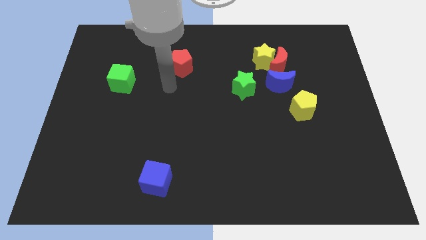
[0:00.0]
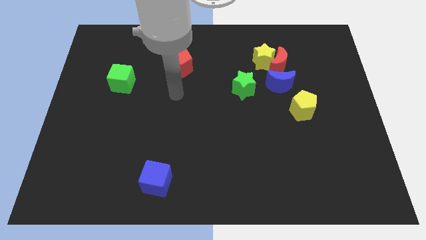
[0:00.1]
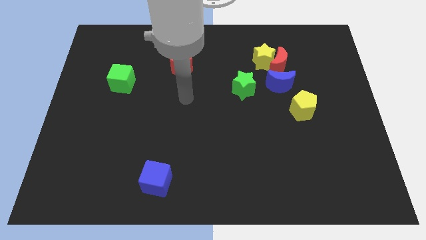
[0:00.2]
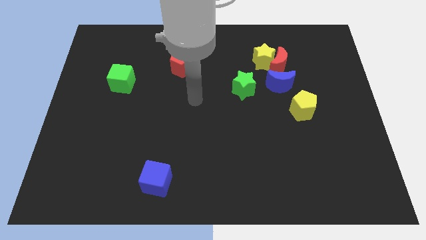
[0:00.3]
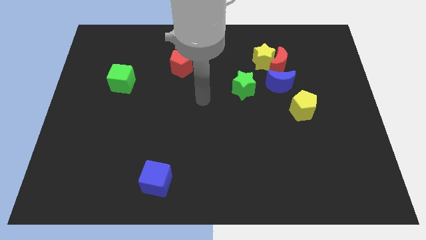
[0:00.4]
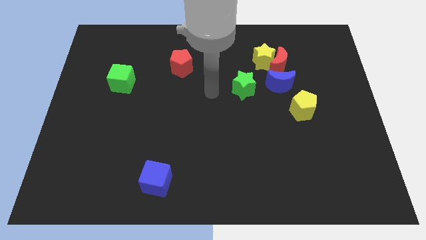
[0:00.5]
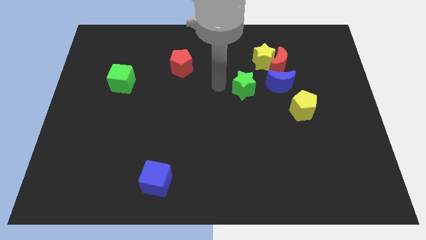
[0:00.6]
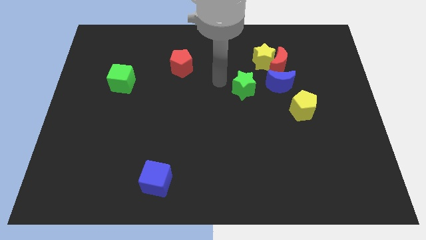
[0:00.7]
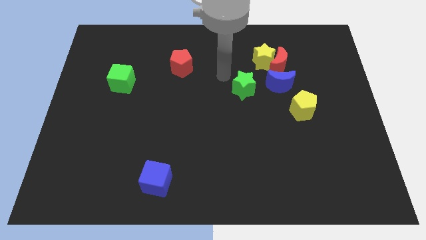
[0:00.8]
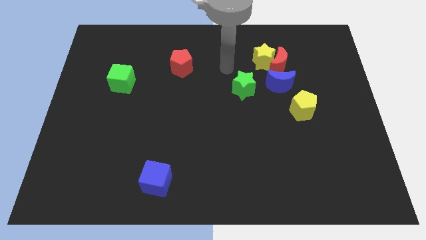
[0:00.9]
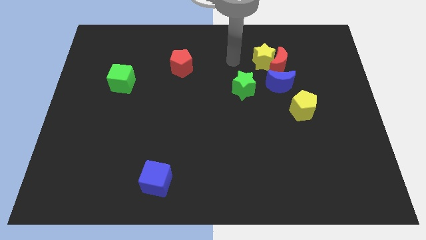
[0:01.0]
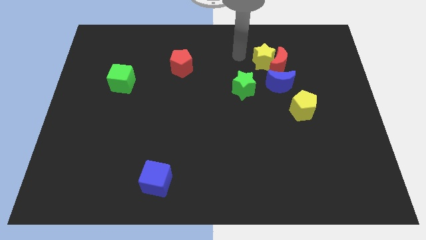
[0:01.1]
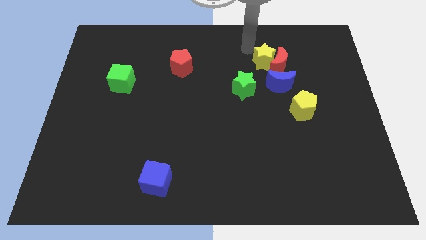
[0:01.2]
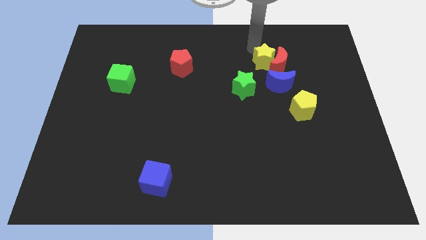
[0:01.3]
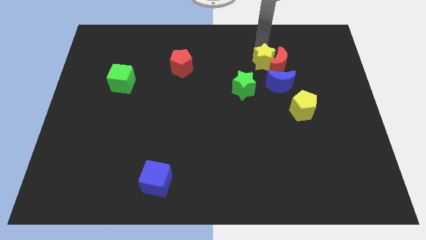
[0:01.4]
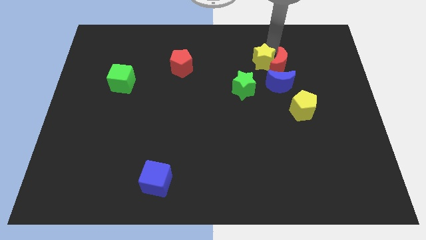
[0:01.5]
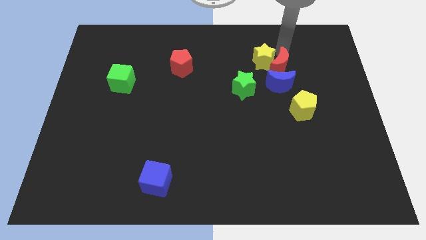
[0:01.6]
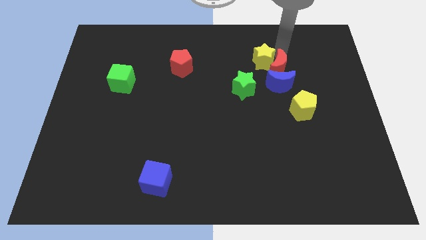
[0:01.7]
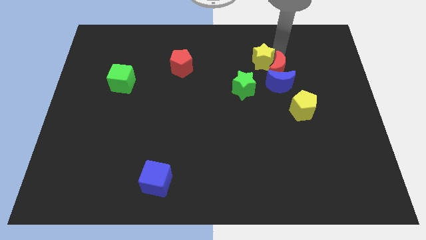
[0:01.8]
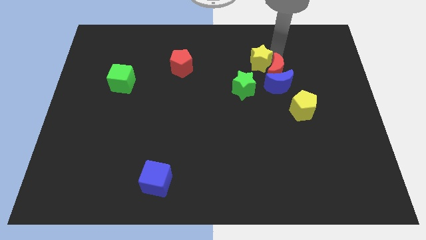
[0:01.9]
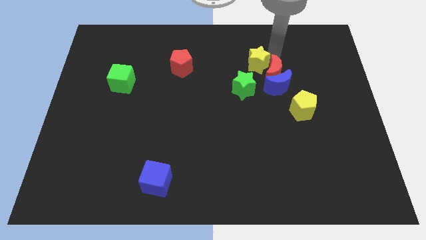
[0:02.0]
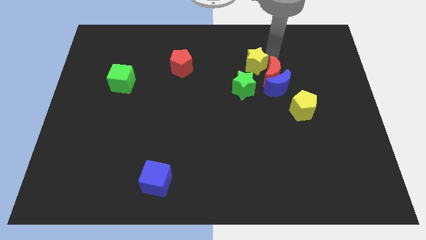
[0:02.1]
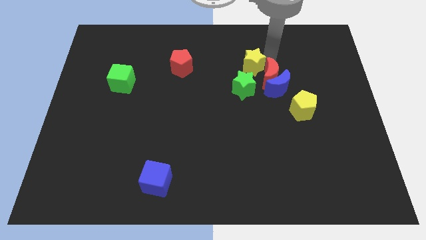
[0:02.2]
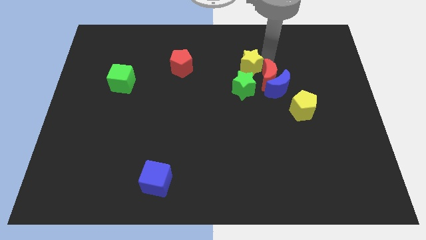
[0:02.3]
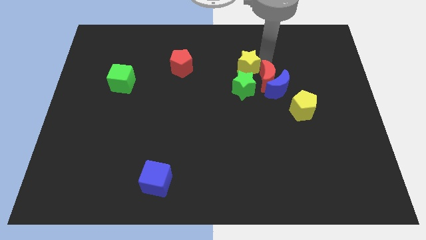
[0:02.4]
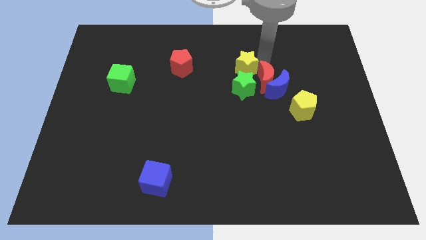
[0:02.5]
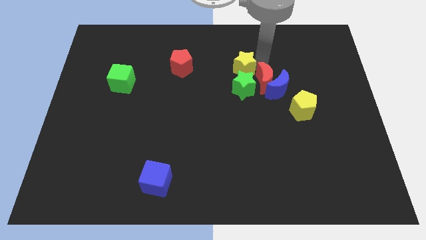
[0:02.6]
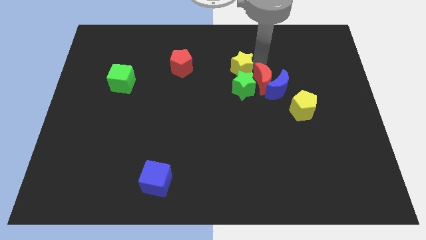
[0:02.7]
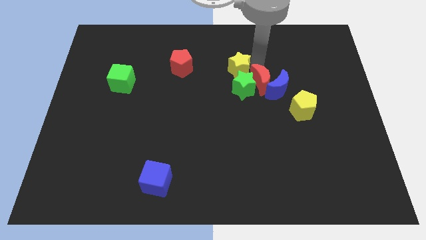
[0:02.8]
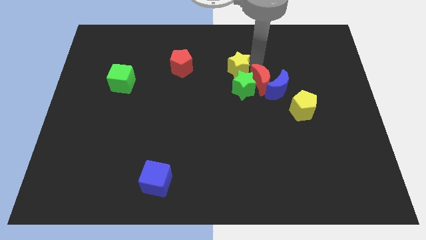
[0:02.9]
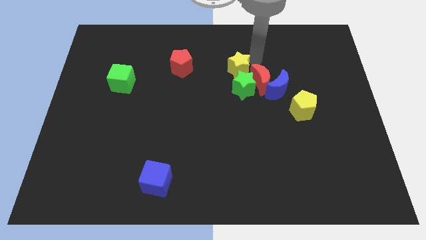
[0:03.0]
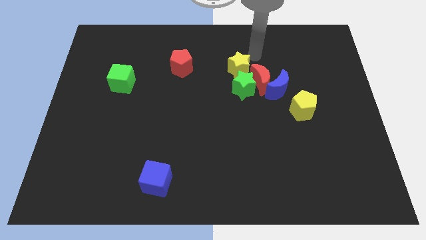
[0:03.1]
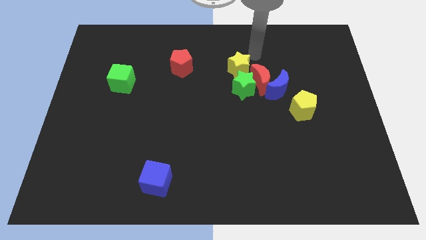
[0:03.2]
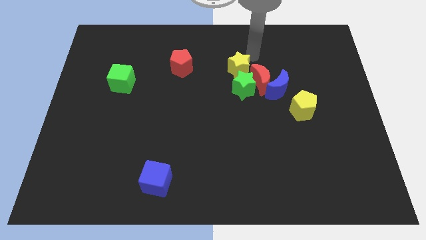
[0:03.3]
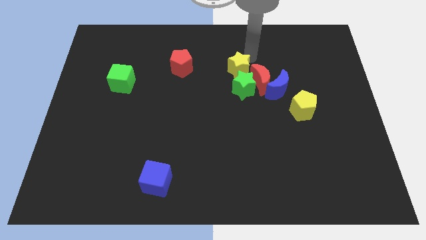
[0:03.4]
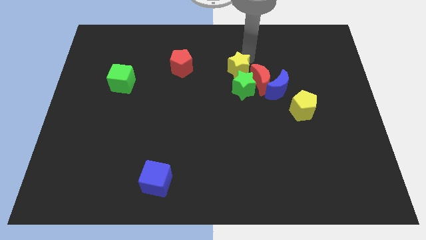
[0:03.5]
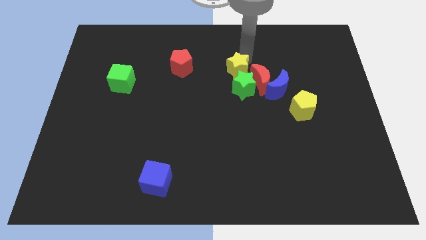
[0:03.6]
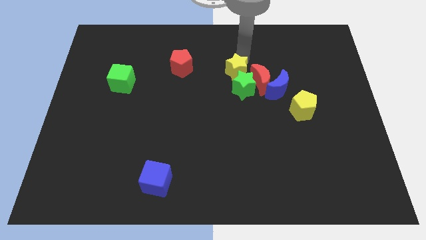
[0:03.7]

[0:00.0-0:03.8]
push the yellow star a bit down and to the left diagonally

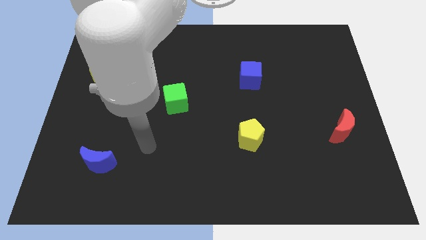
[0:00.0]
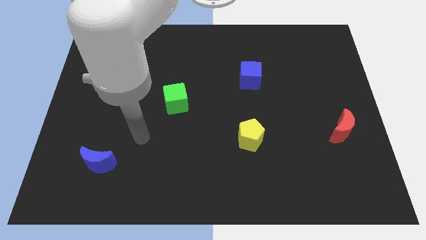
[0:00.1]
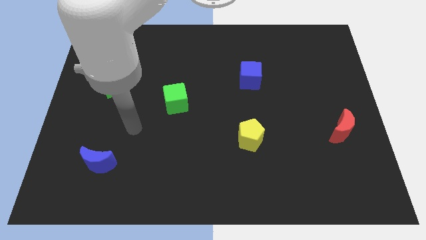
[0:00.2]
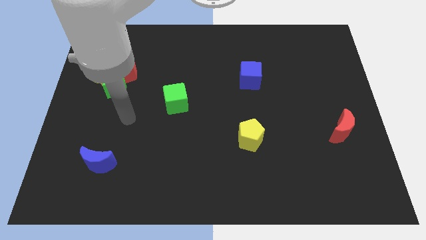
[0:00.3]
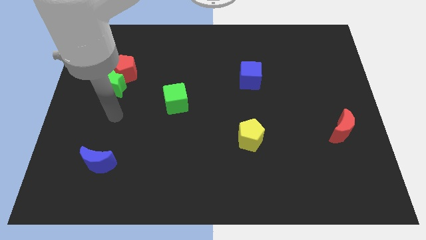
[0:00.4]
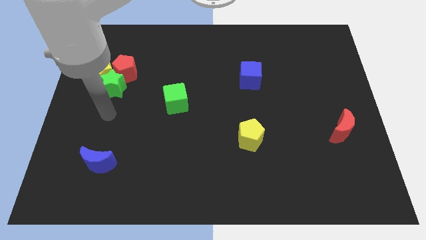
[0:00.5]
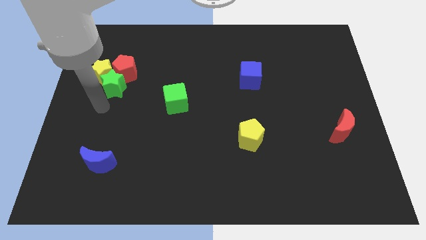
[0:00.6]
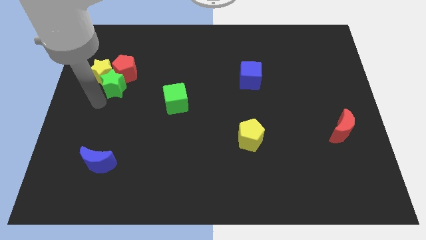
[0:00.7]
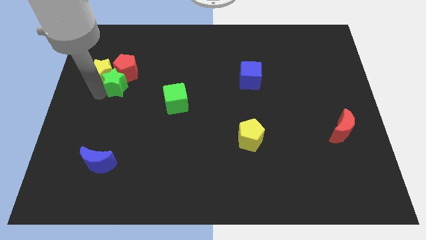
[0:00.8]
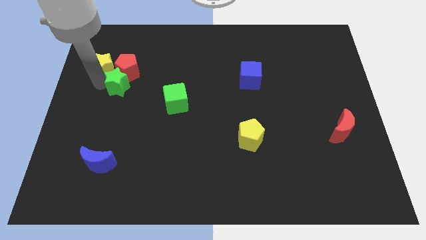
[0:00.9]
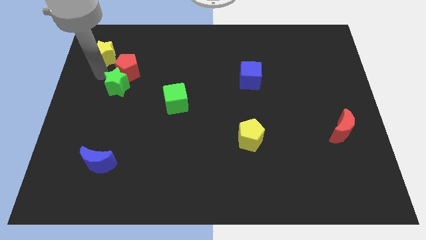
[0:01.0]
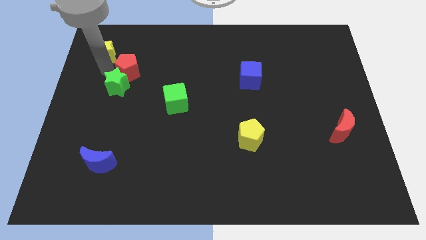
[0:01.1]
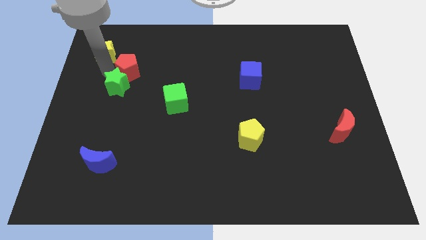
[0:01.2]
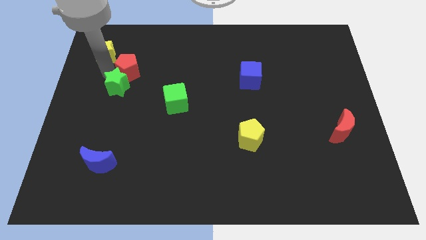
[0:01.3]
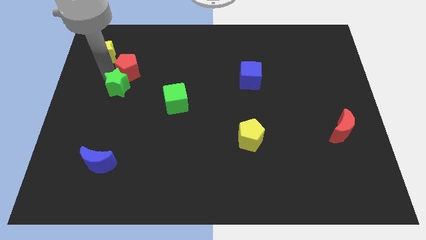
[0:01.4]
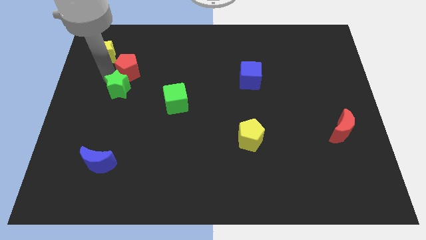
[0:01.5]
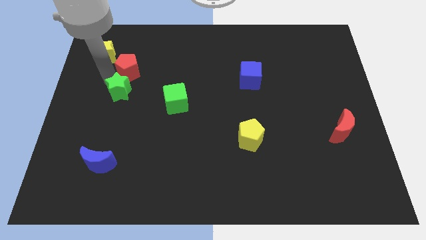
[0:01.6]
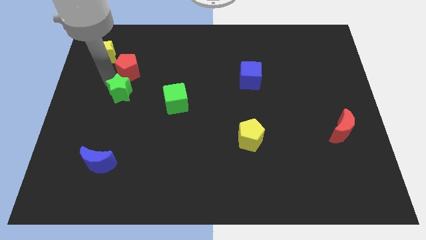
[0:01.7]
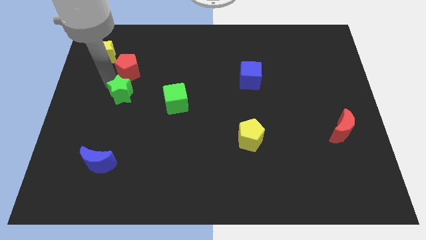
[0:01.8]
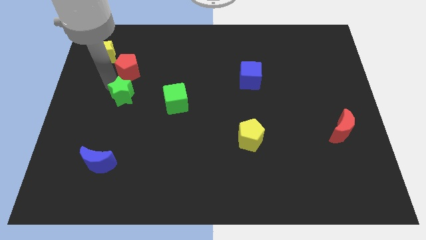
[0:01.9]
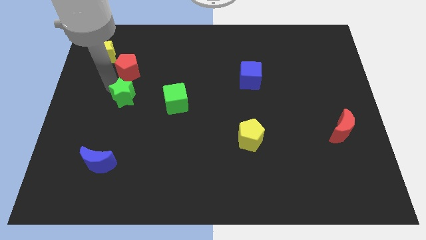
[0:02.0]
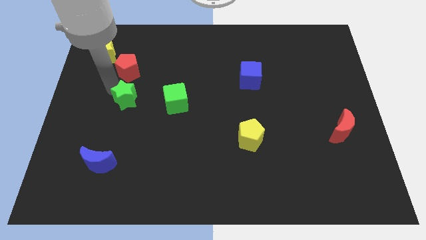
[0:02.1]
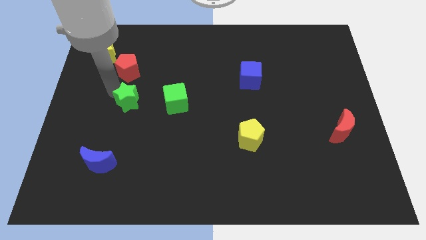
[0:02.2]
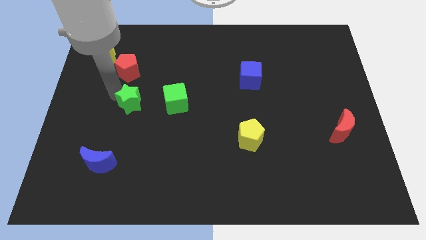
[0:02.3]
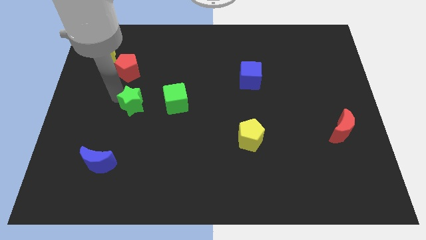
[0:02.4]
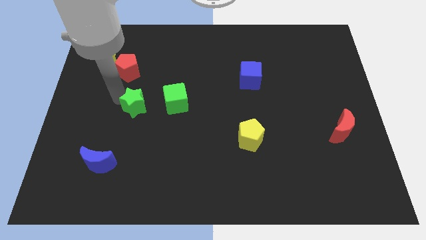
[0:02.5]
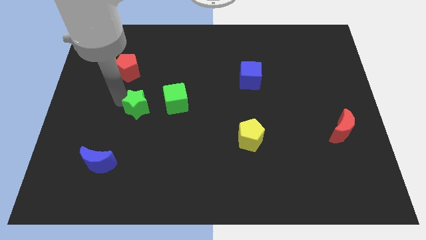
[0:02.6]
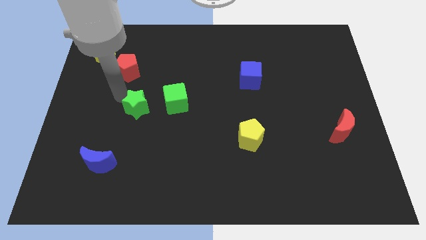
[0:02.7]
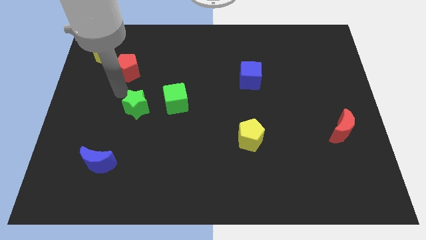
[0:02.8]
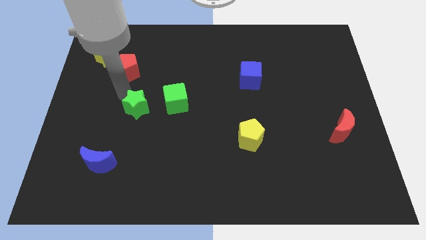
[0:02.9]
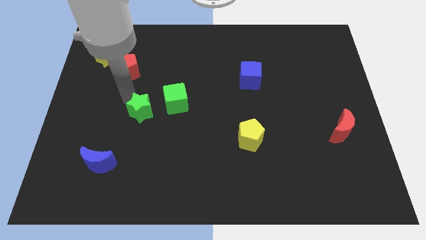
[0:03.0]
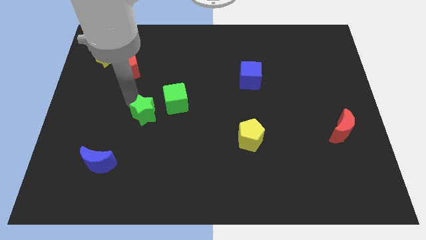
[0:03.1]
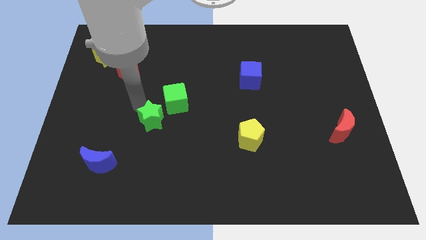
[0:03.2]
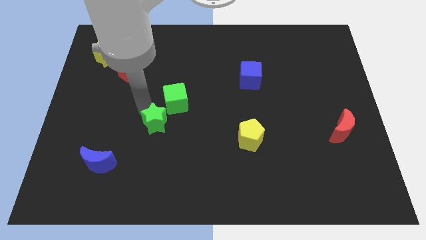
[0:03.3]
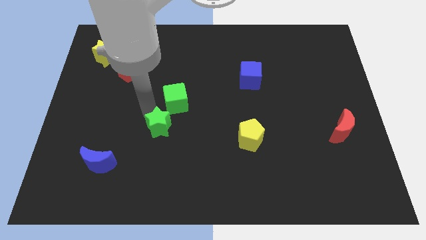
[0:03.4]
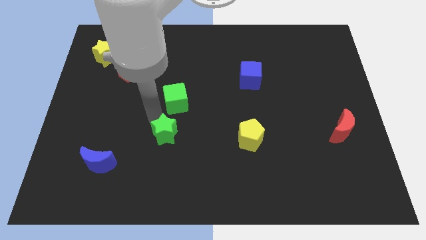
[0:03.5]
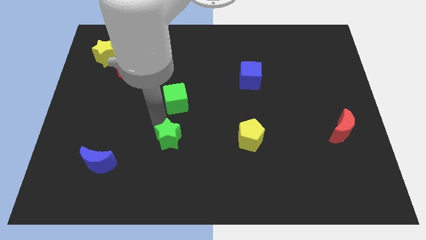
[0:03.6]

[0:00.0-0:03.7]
slide the green star downwards and then right

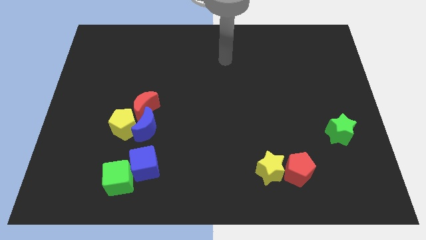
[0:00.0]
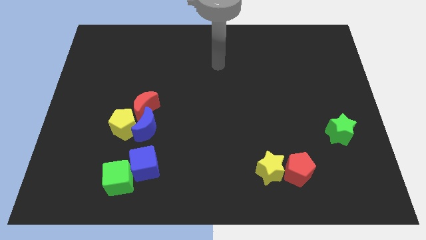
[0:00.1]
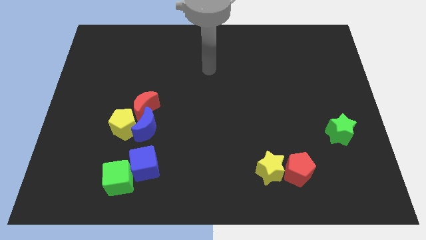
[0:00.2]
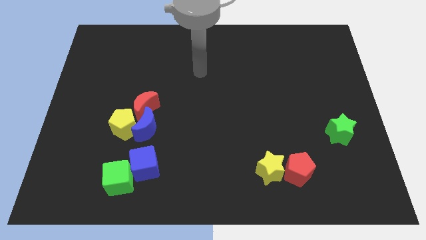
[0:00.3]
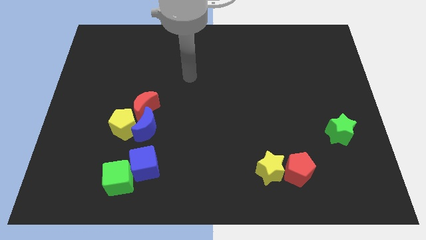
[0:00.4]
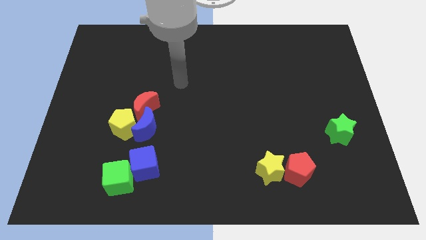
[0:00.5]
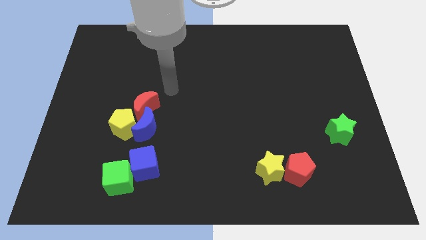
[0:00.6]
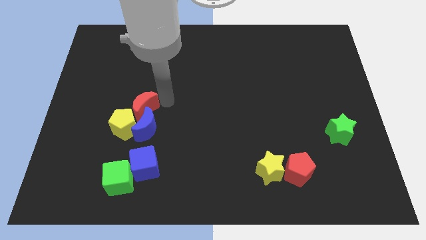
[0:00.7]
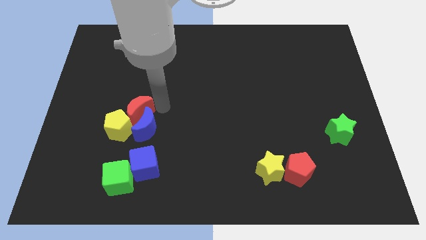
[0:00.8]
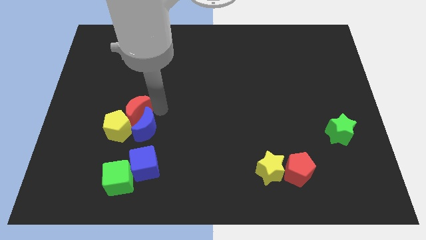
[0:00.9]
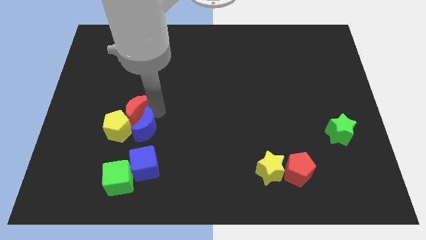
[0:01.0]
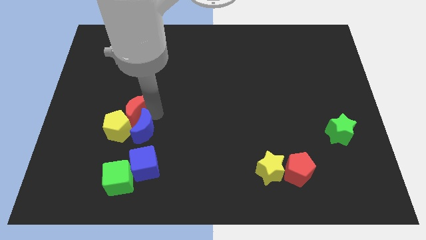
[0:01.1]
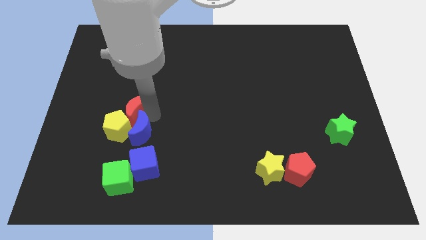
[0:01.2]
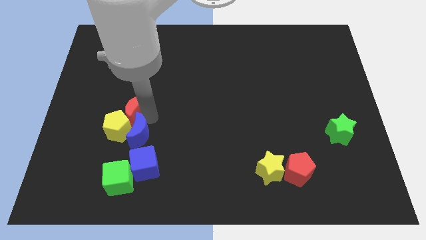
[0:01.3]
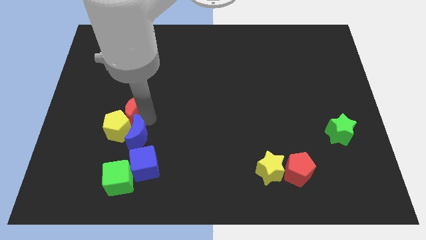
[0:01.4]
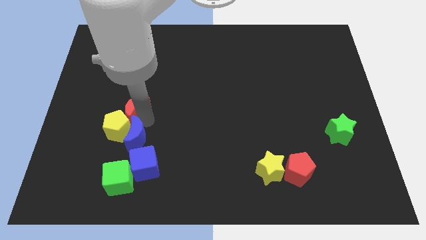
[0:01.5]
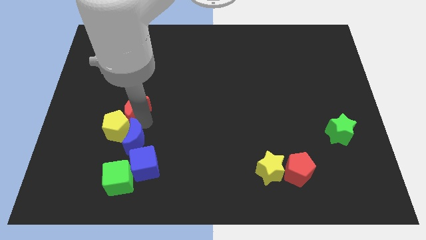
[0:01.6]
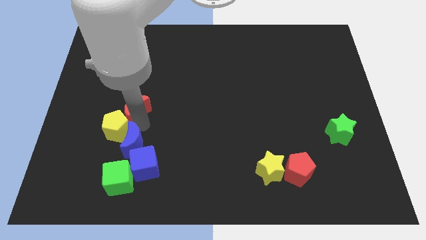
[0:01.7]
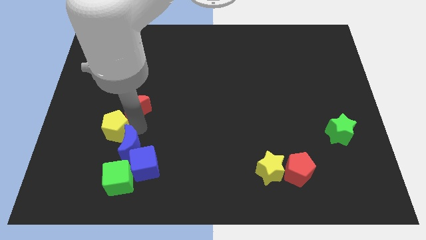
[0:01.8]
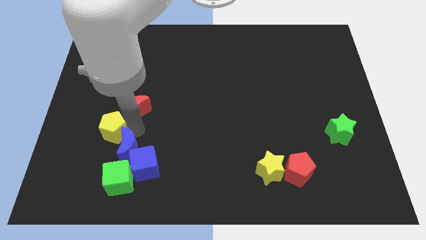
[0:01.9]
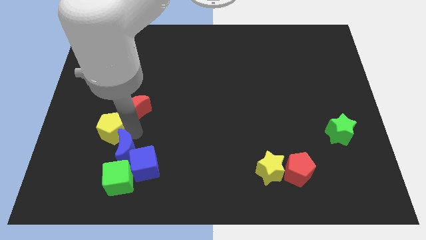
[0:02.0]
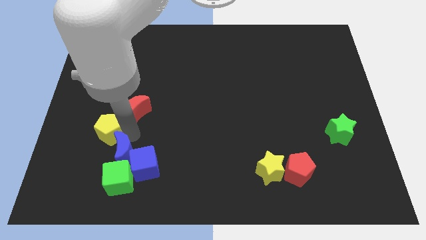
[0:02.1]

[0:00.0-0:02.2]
slightly move the blue moon down and then left
